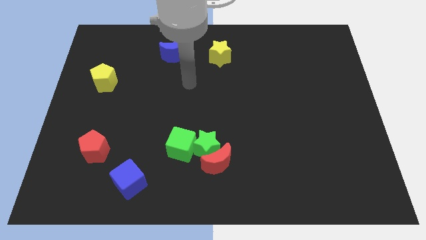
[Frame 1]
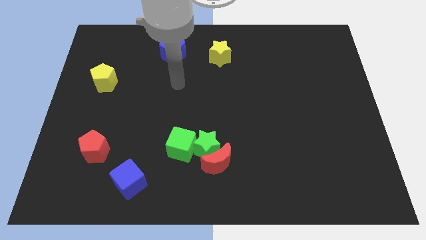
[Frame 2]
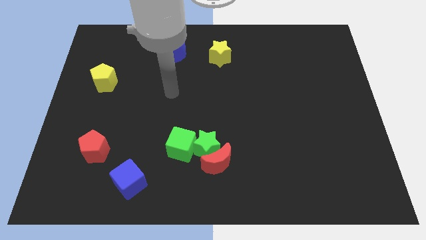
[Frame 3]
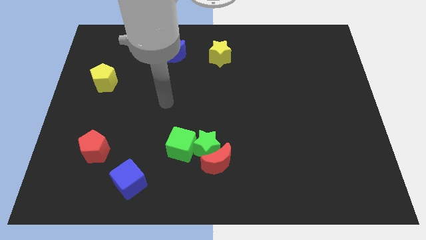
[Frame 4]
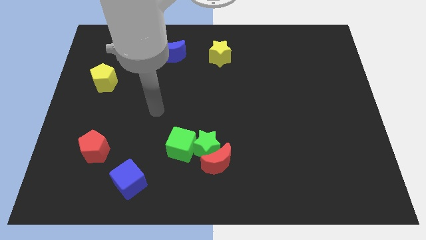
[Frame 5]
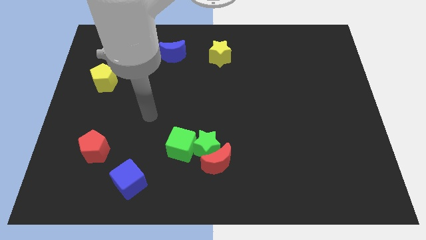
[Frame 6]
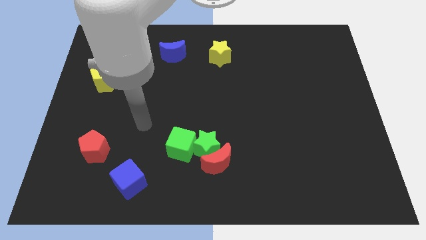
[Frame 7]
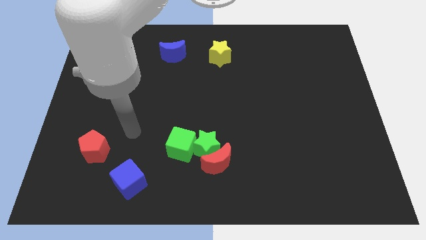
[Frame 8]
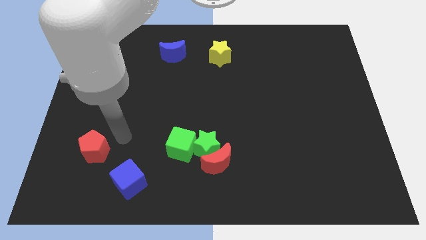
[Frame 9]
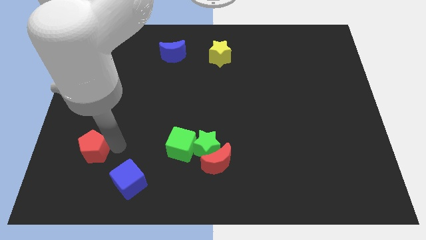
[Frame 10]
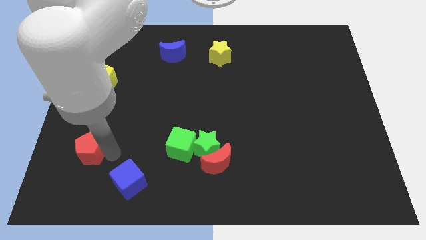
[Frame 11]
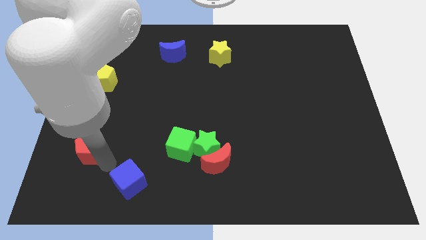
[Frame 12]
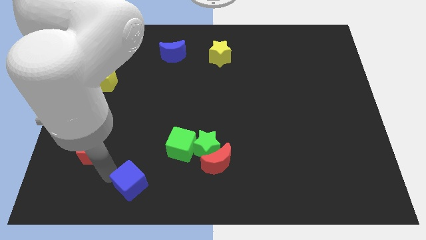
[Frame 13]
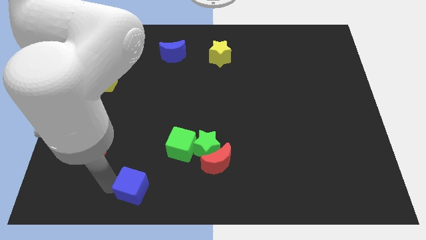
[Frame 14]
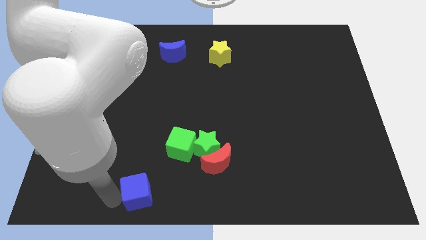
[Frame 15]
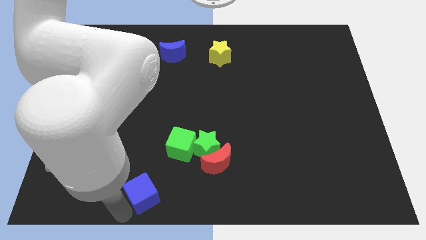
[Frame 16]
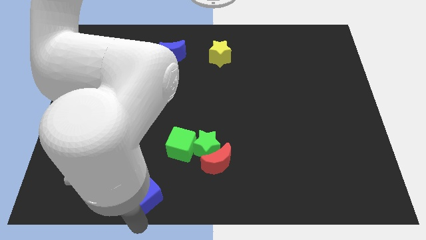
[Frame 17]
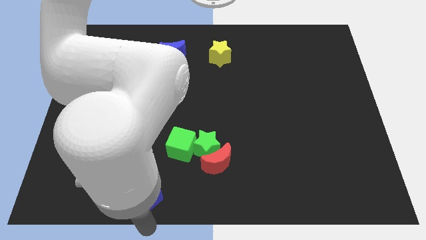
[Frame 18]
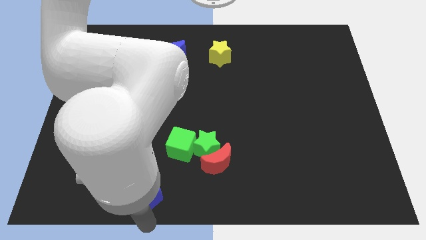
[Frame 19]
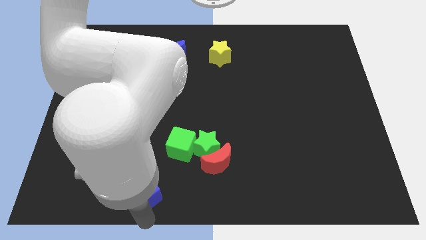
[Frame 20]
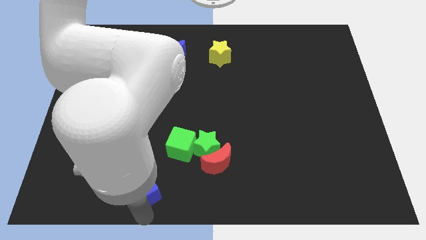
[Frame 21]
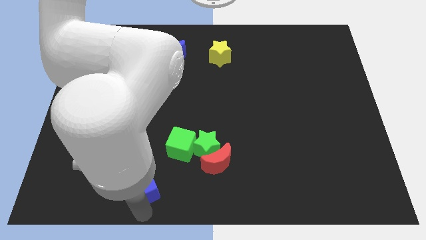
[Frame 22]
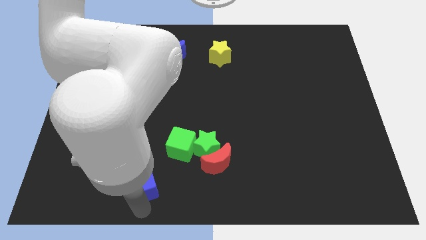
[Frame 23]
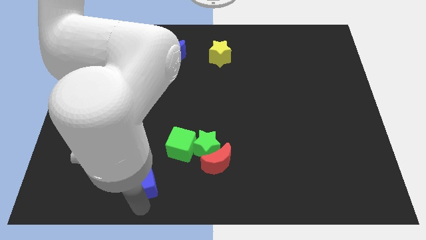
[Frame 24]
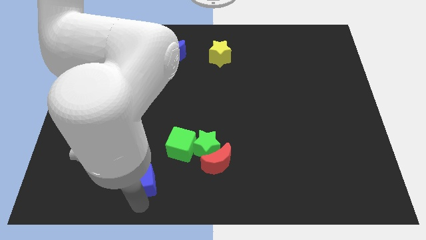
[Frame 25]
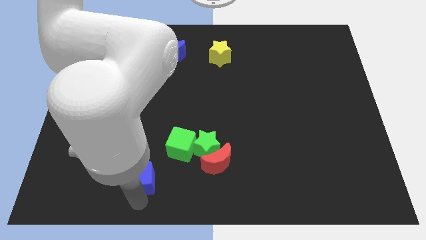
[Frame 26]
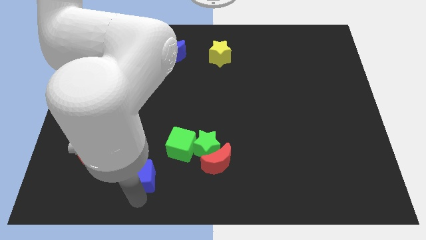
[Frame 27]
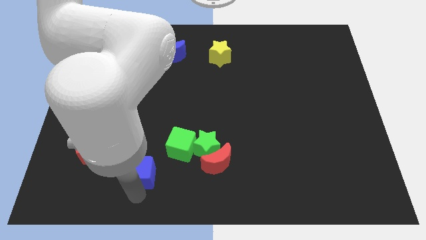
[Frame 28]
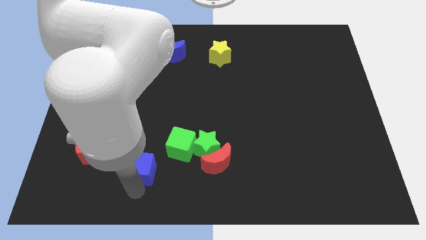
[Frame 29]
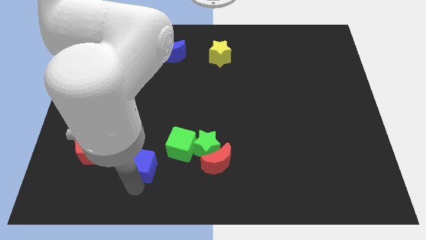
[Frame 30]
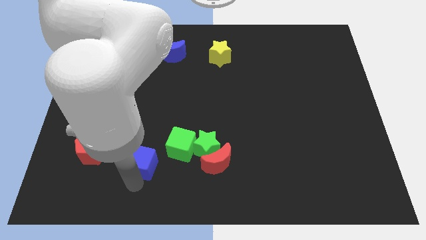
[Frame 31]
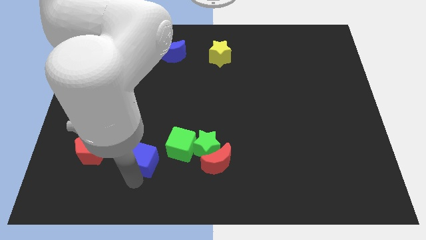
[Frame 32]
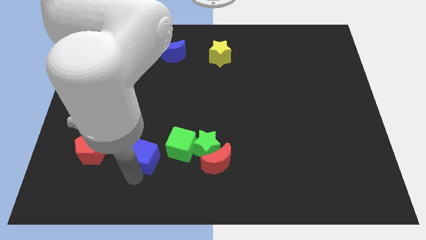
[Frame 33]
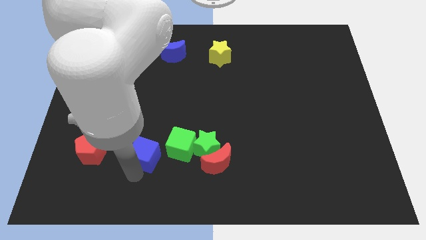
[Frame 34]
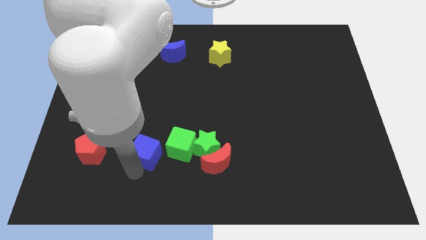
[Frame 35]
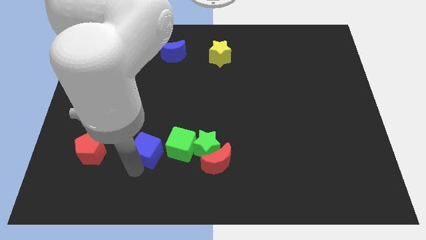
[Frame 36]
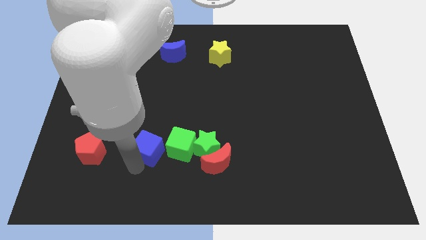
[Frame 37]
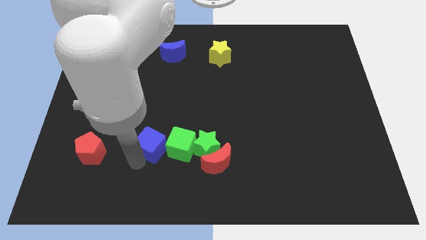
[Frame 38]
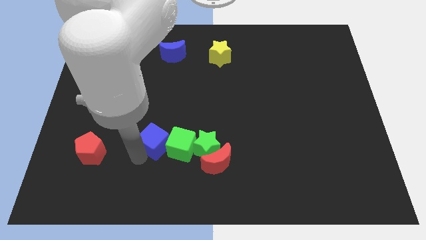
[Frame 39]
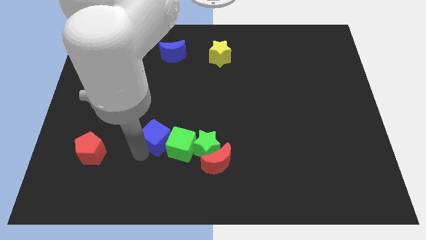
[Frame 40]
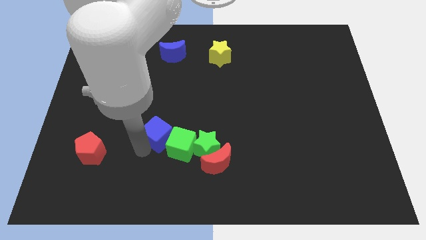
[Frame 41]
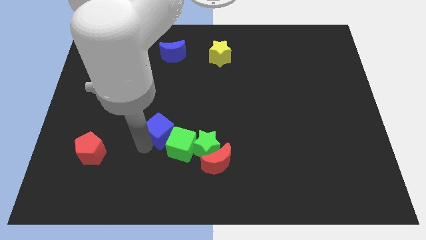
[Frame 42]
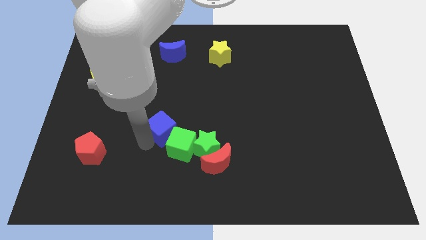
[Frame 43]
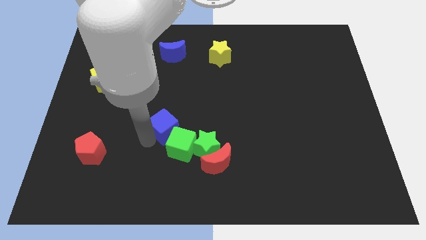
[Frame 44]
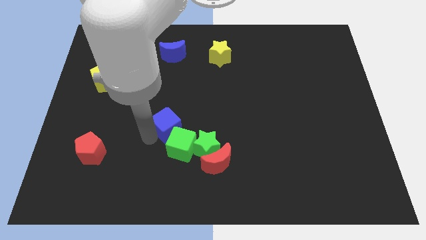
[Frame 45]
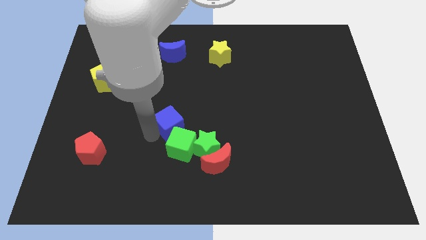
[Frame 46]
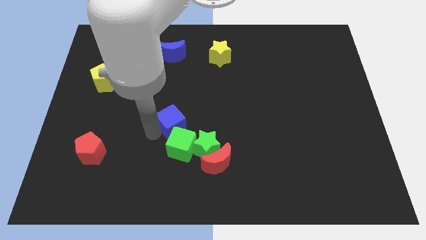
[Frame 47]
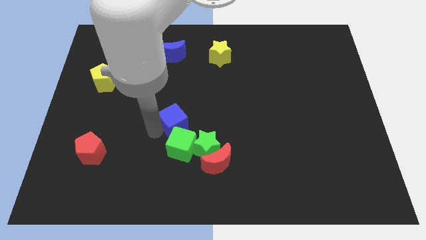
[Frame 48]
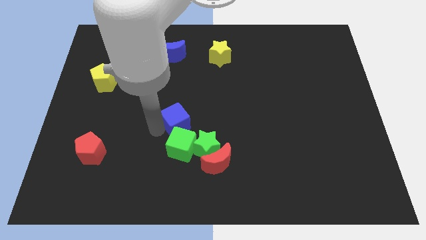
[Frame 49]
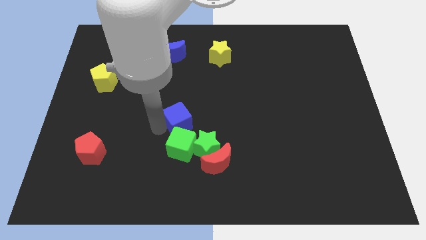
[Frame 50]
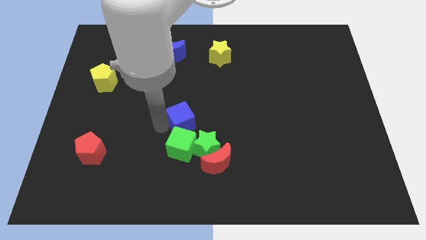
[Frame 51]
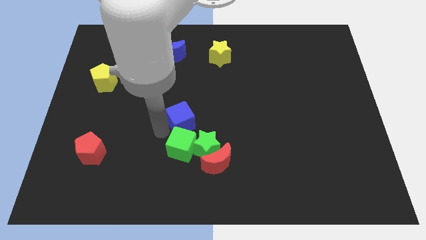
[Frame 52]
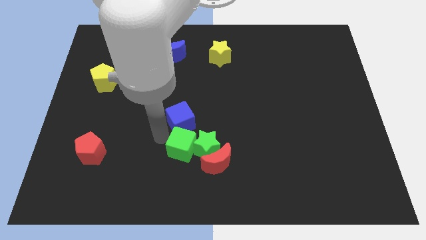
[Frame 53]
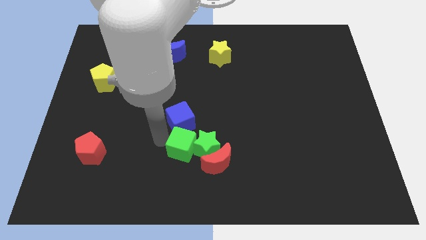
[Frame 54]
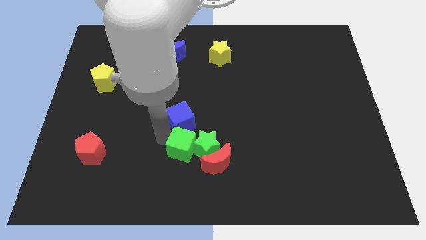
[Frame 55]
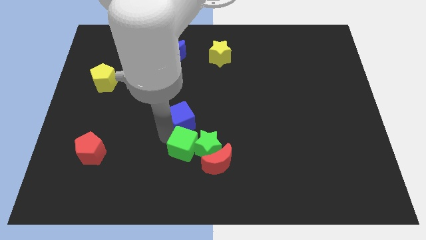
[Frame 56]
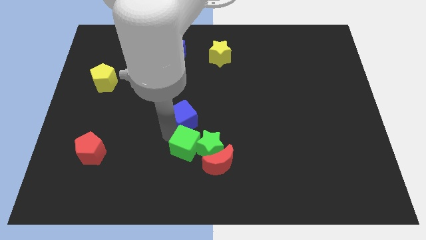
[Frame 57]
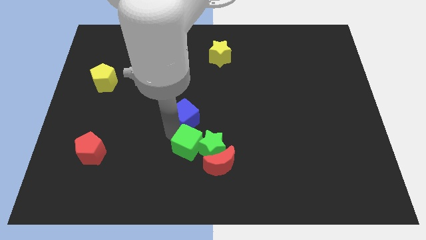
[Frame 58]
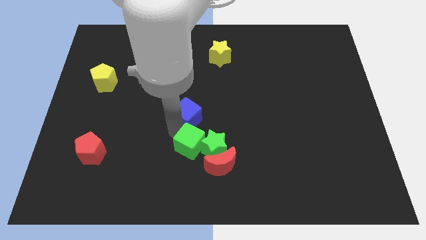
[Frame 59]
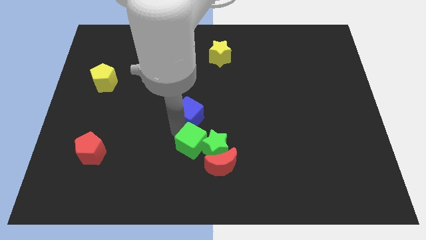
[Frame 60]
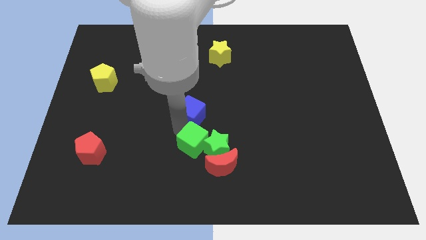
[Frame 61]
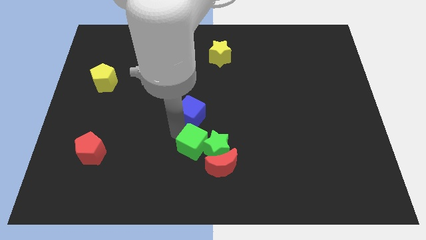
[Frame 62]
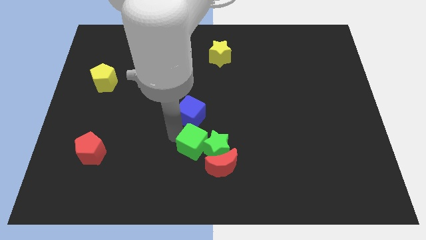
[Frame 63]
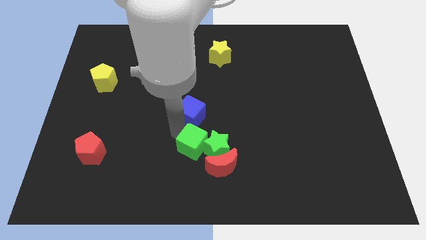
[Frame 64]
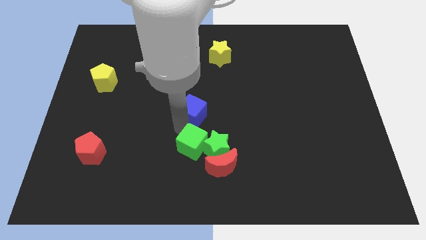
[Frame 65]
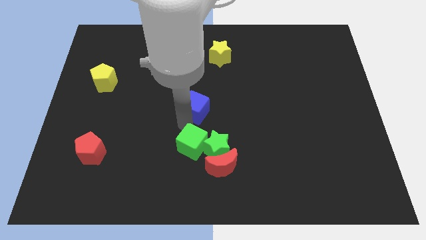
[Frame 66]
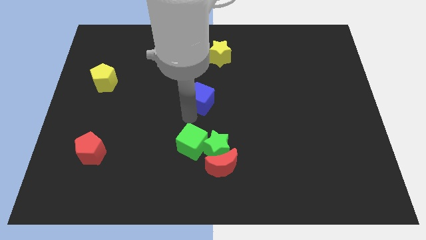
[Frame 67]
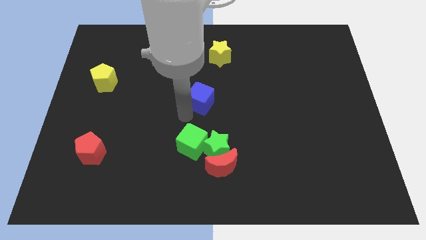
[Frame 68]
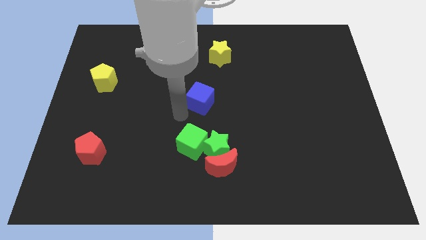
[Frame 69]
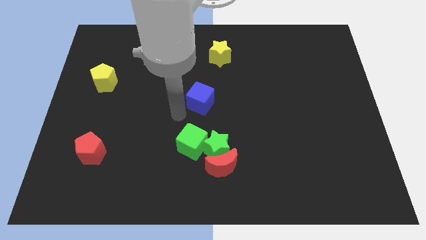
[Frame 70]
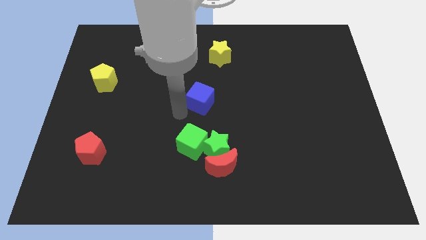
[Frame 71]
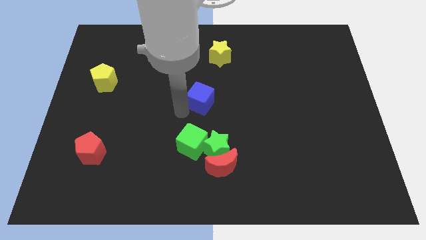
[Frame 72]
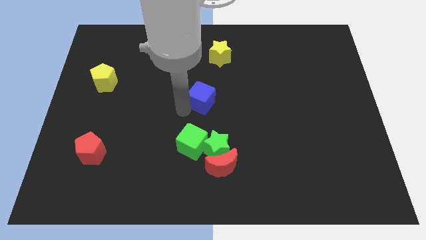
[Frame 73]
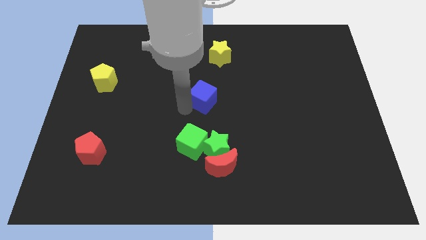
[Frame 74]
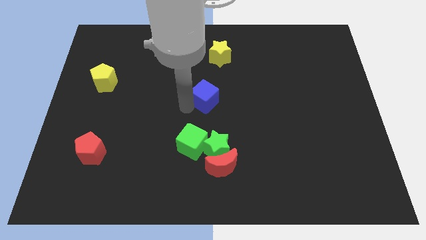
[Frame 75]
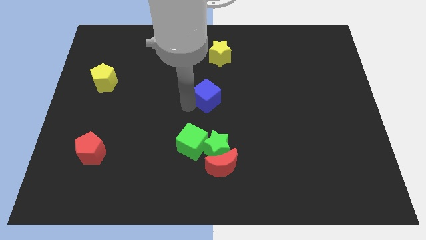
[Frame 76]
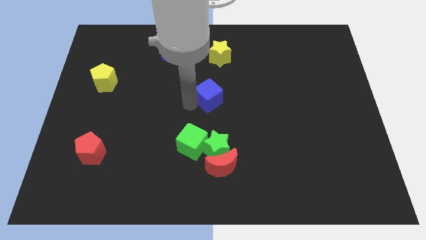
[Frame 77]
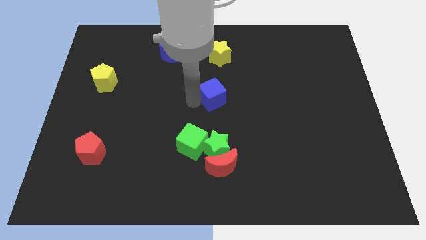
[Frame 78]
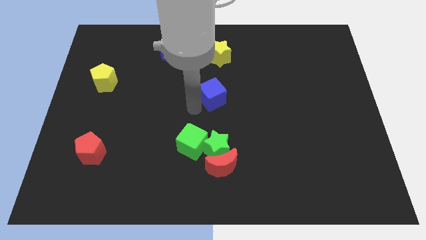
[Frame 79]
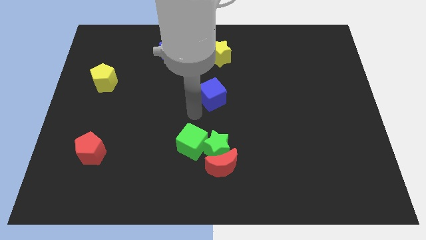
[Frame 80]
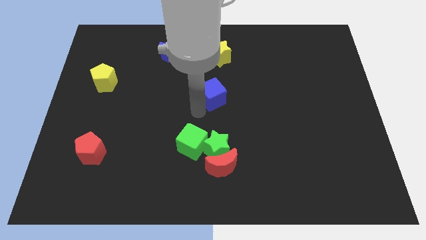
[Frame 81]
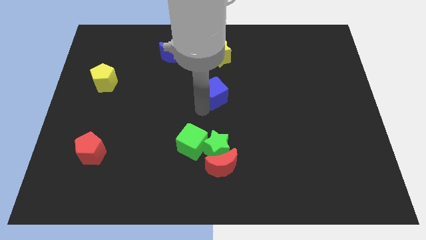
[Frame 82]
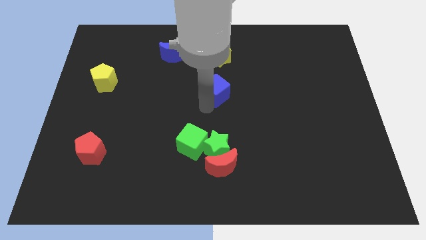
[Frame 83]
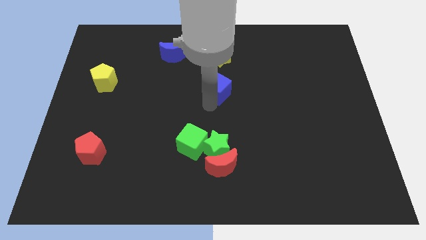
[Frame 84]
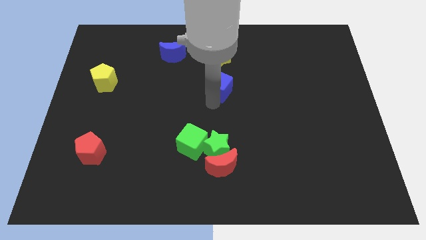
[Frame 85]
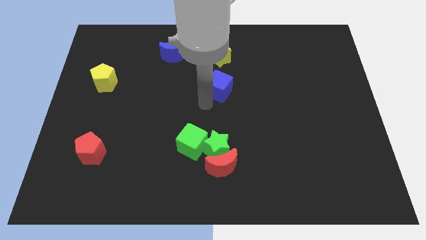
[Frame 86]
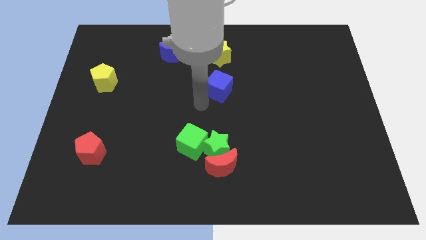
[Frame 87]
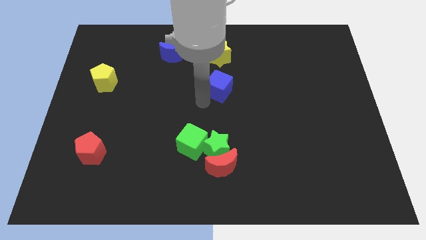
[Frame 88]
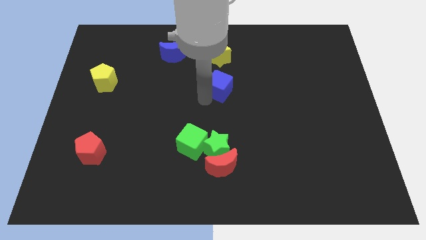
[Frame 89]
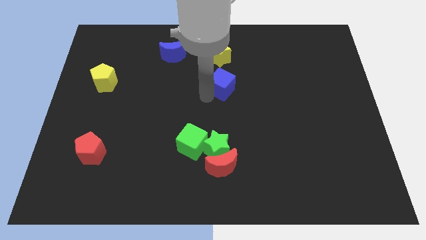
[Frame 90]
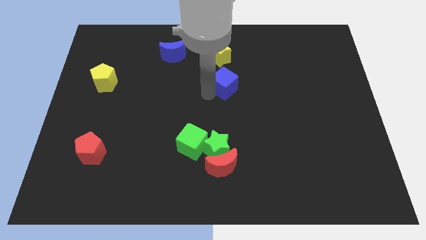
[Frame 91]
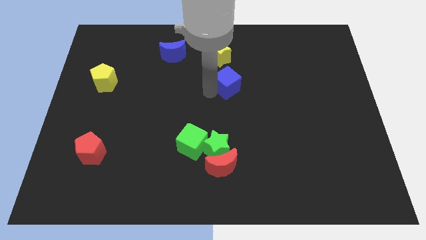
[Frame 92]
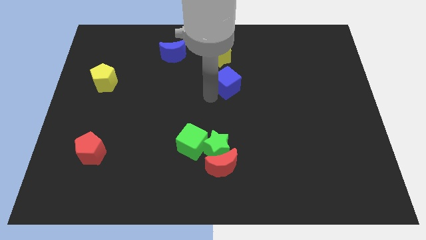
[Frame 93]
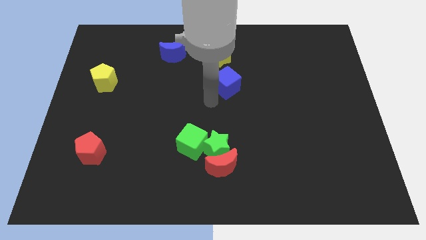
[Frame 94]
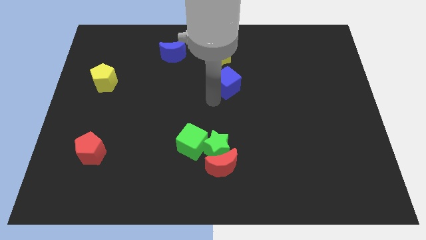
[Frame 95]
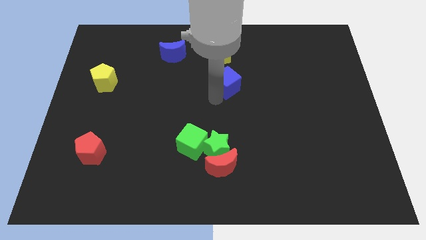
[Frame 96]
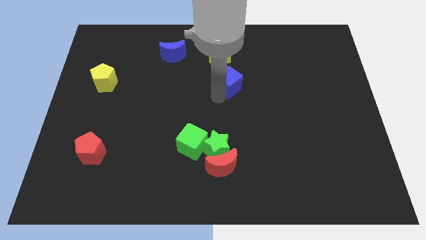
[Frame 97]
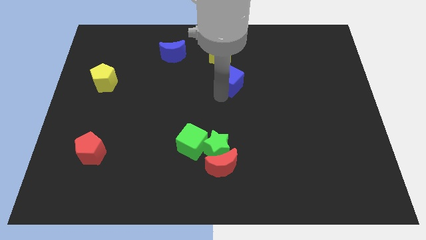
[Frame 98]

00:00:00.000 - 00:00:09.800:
push the blue cube to the bottom right side of the yellow star
